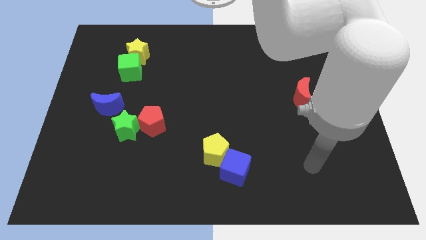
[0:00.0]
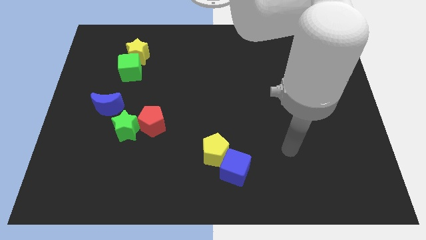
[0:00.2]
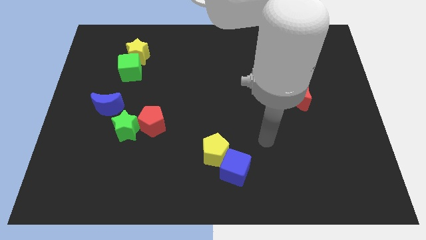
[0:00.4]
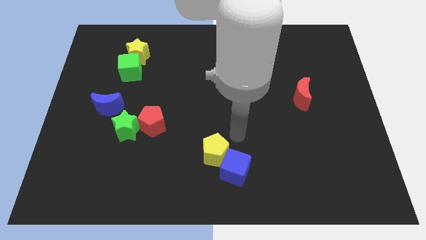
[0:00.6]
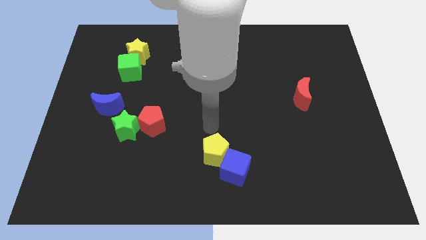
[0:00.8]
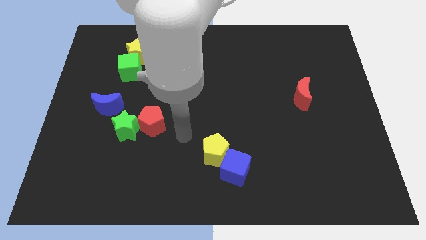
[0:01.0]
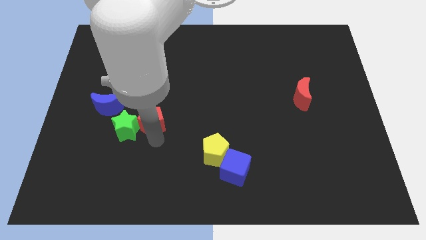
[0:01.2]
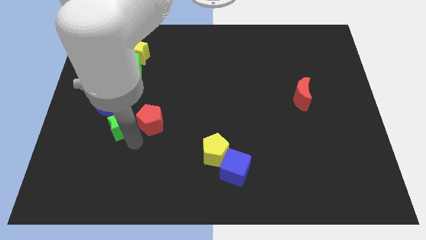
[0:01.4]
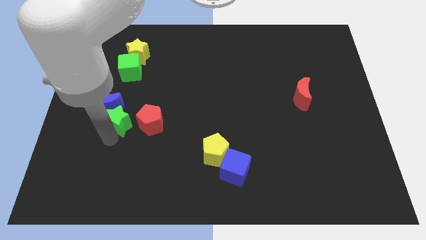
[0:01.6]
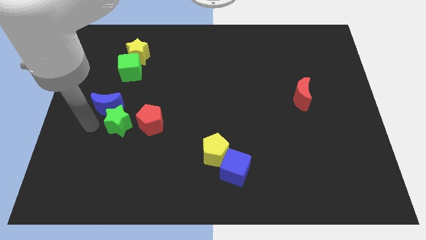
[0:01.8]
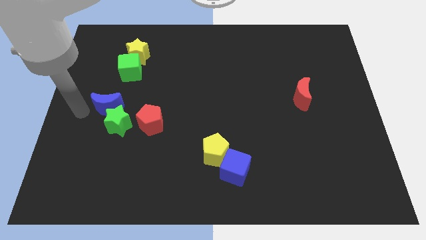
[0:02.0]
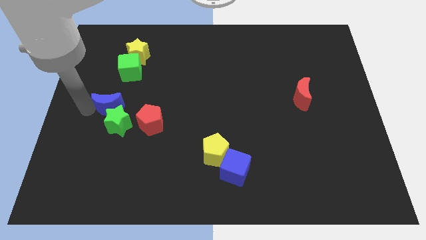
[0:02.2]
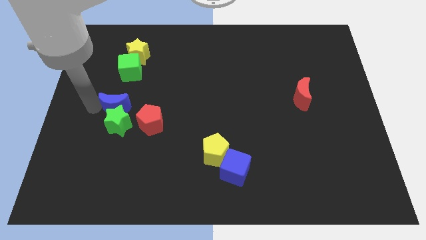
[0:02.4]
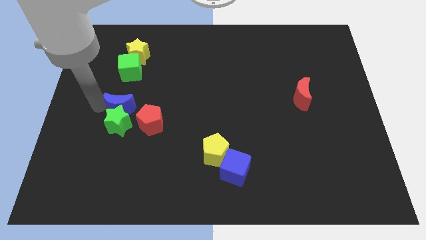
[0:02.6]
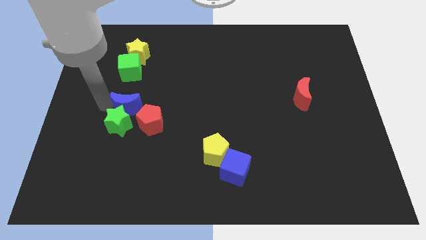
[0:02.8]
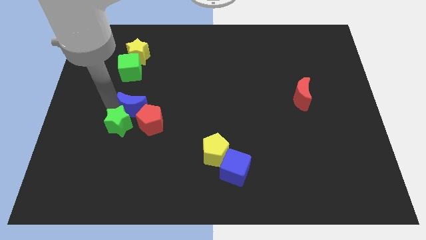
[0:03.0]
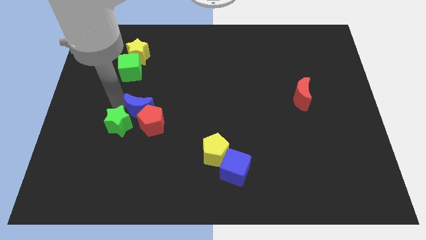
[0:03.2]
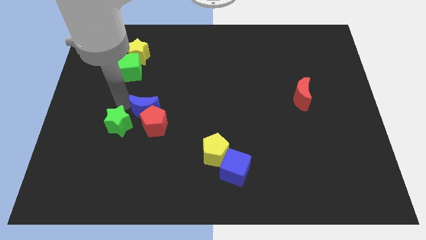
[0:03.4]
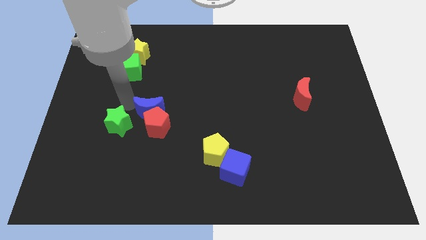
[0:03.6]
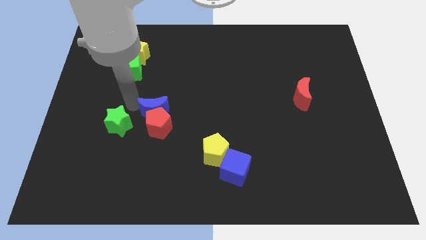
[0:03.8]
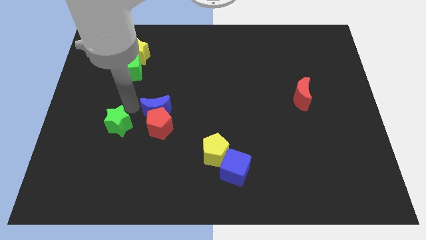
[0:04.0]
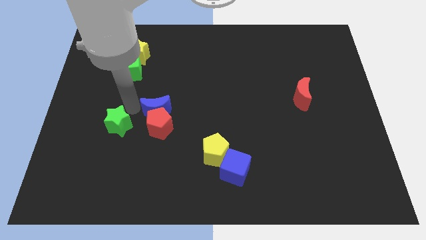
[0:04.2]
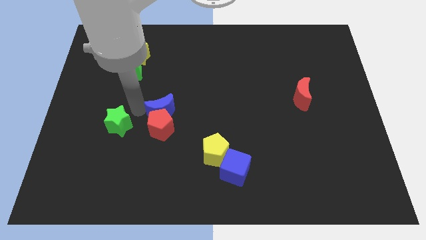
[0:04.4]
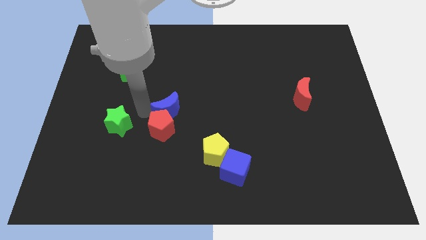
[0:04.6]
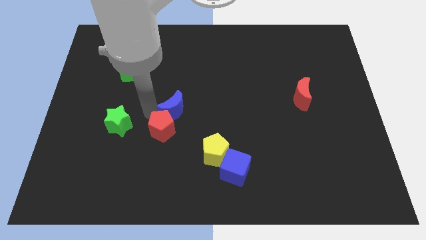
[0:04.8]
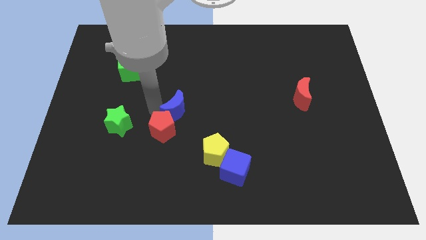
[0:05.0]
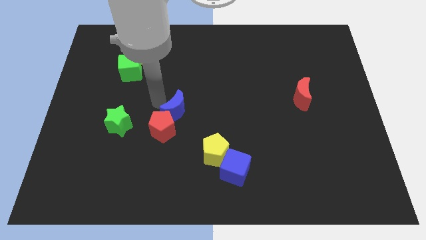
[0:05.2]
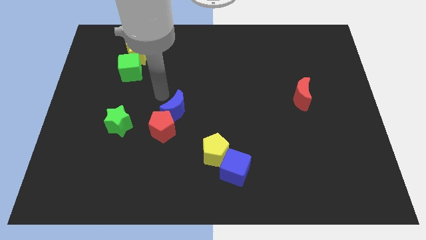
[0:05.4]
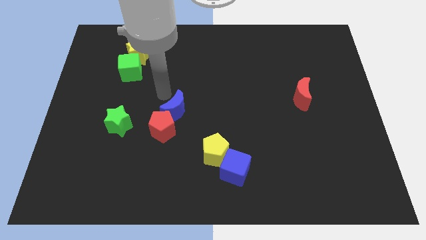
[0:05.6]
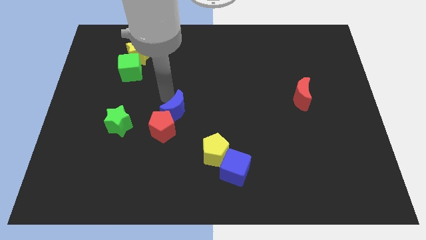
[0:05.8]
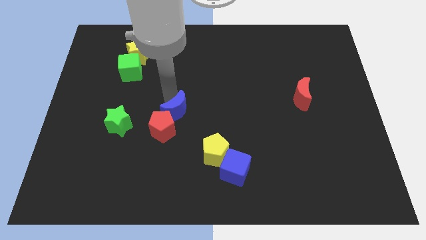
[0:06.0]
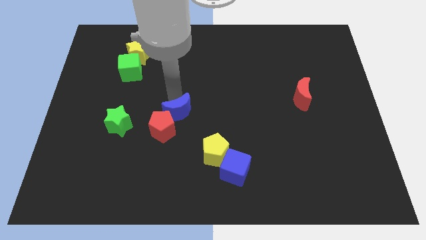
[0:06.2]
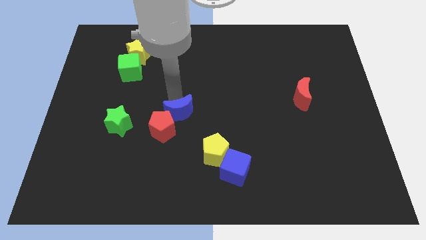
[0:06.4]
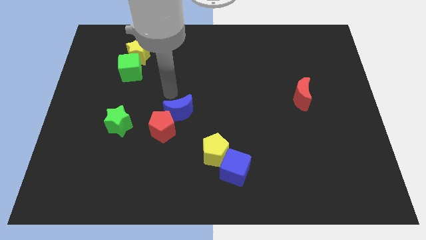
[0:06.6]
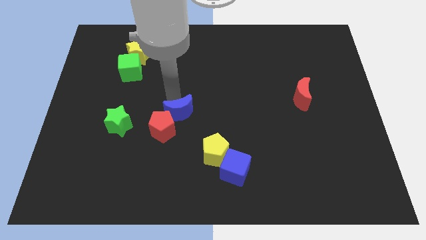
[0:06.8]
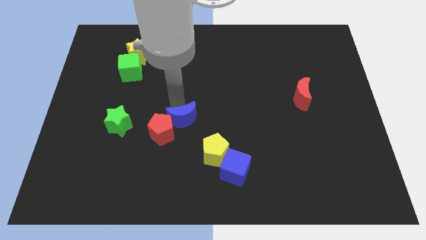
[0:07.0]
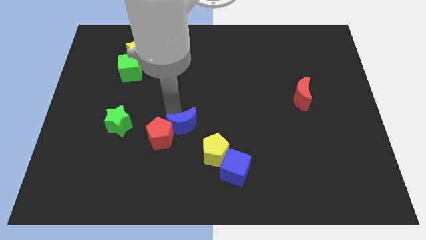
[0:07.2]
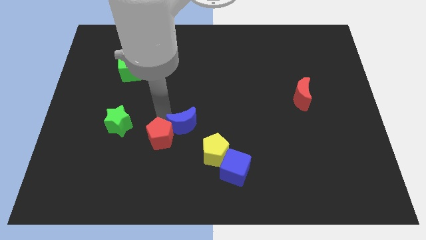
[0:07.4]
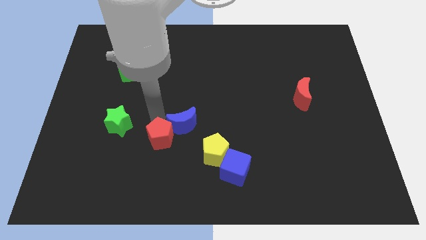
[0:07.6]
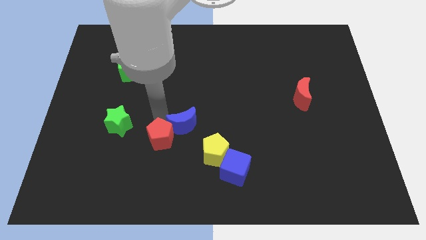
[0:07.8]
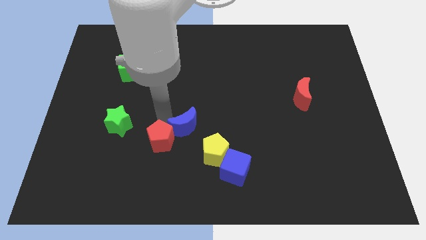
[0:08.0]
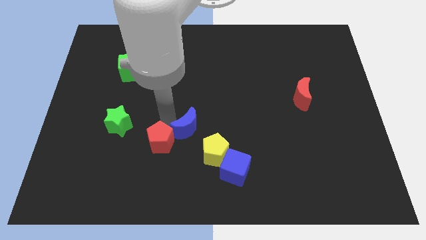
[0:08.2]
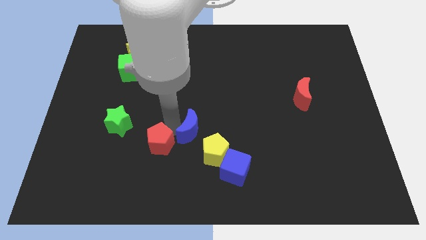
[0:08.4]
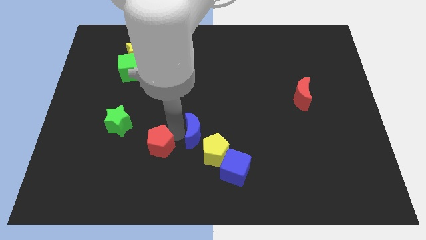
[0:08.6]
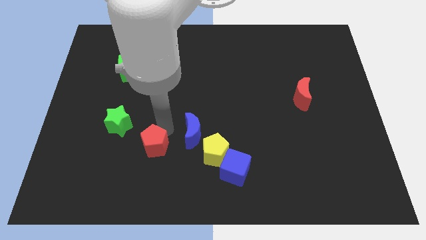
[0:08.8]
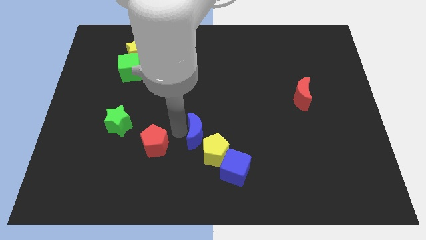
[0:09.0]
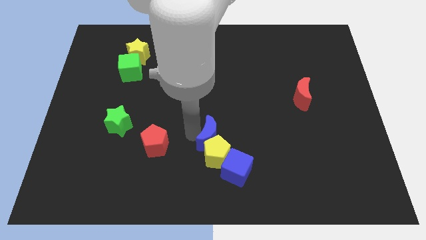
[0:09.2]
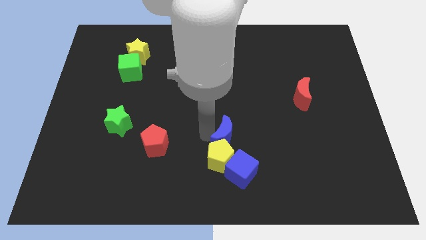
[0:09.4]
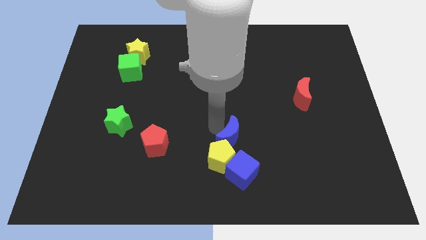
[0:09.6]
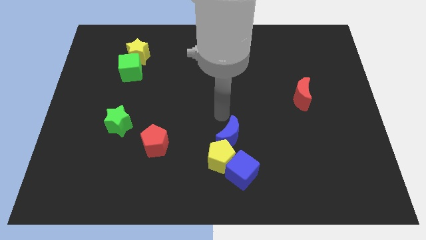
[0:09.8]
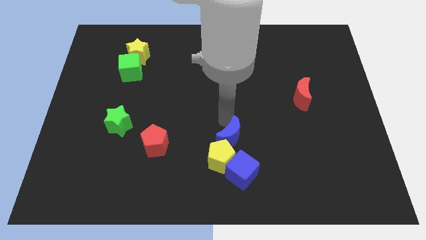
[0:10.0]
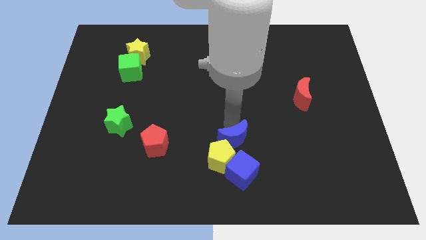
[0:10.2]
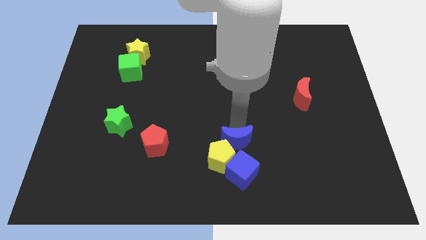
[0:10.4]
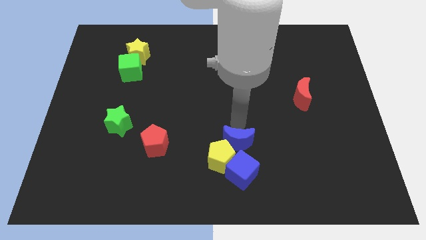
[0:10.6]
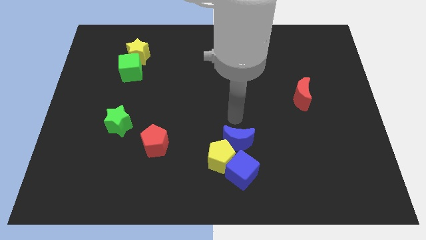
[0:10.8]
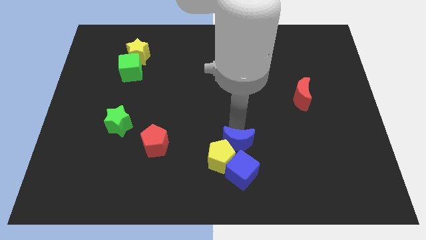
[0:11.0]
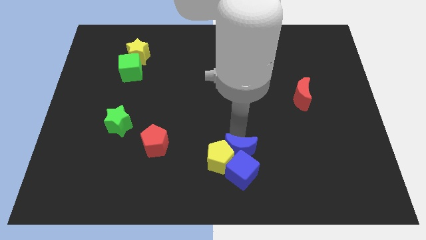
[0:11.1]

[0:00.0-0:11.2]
move the blue moon next to the blue cube

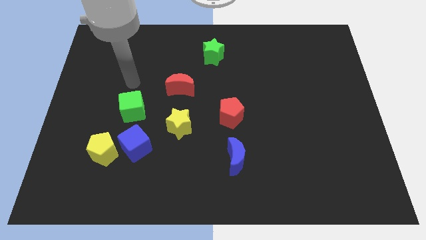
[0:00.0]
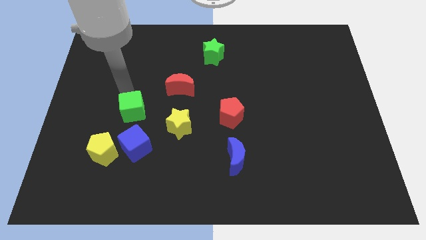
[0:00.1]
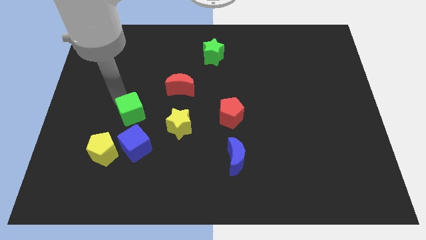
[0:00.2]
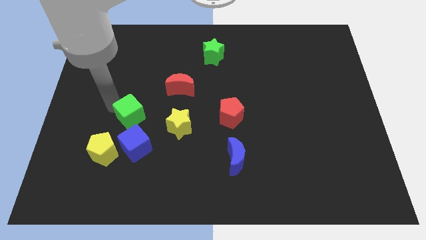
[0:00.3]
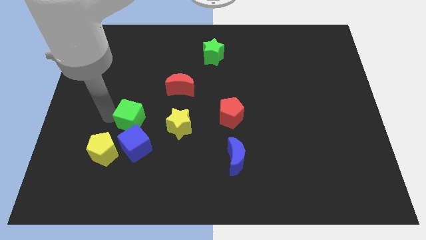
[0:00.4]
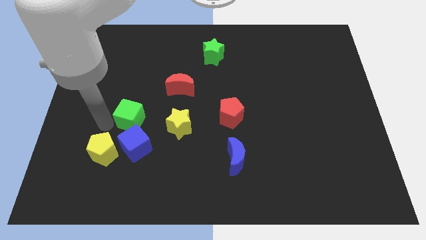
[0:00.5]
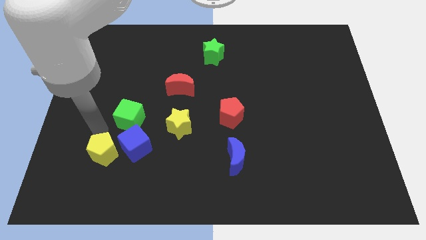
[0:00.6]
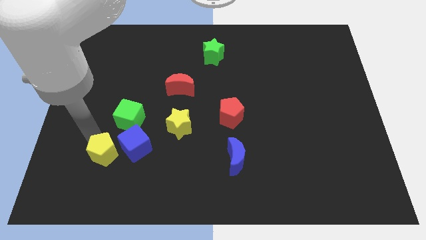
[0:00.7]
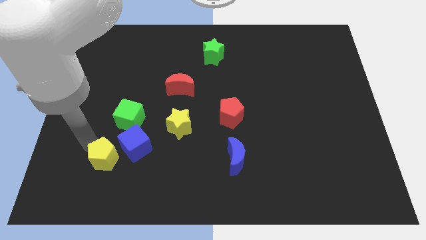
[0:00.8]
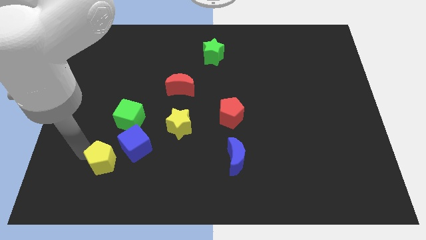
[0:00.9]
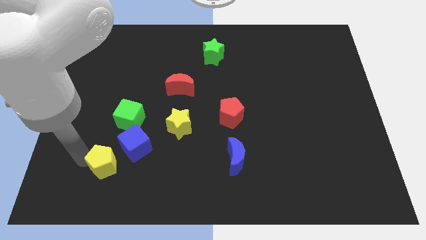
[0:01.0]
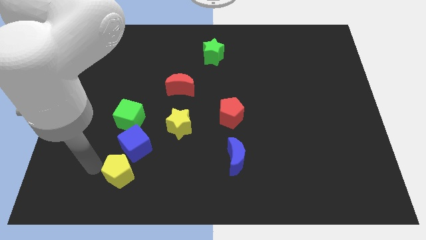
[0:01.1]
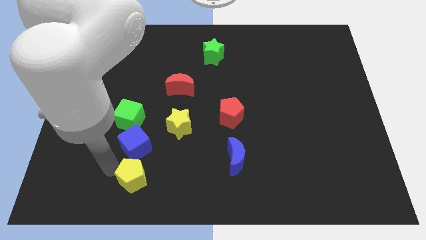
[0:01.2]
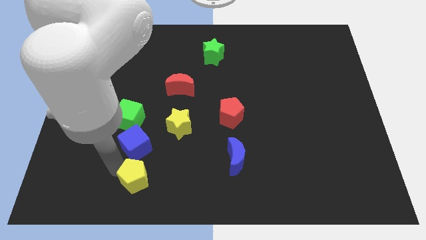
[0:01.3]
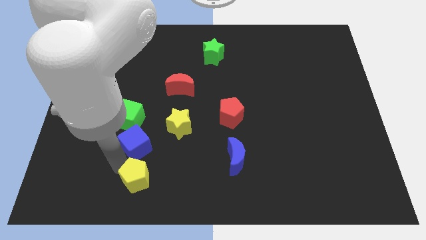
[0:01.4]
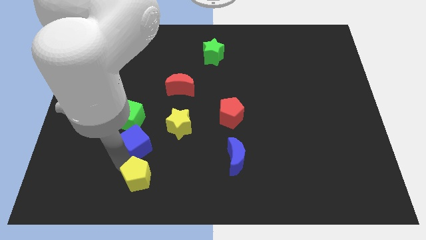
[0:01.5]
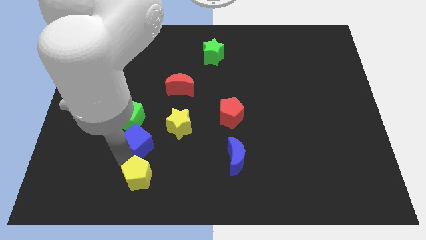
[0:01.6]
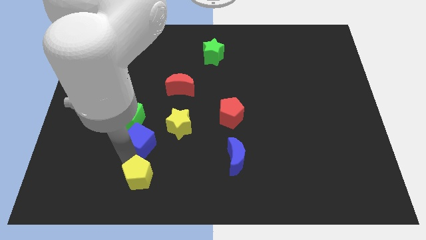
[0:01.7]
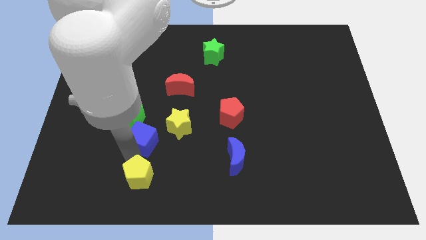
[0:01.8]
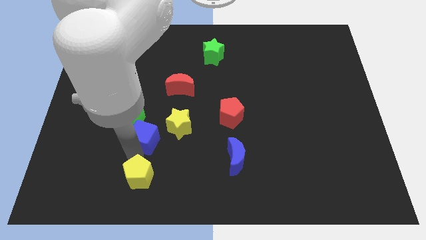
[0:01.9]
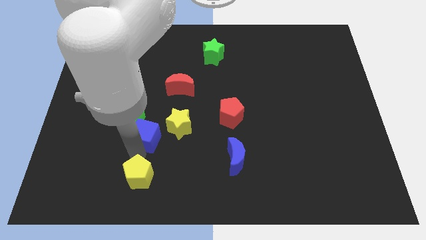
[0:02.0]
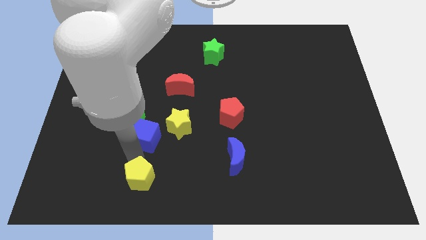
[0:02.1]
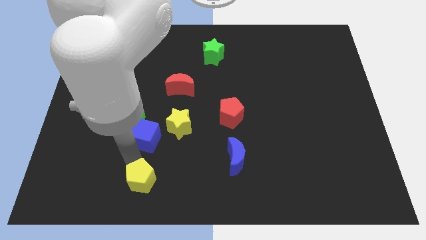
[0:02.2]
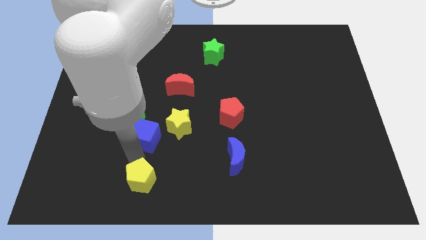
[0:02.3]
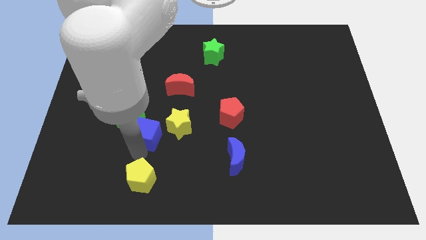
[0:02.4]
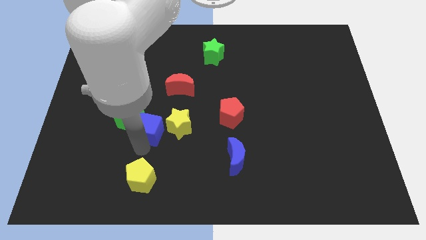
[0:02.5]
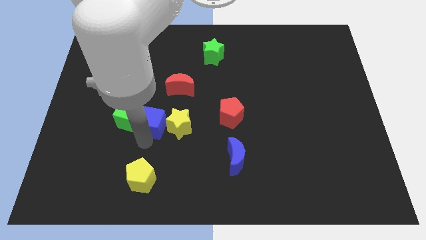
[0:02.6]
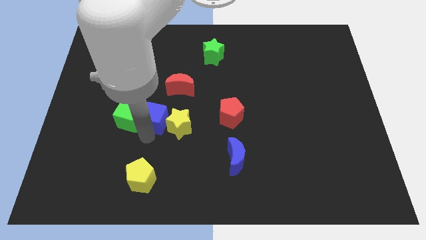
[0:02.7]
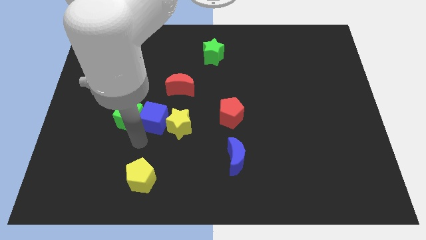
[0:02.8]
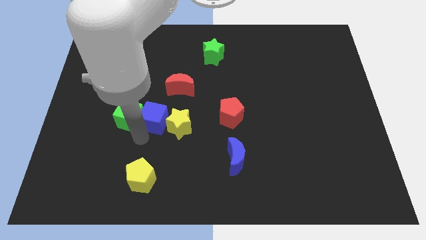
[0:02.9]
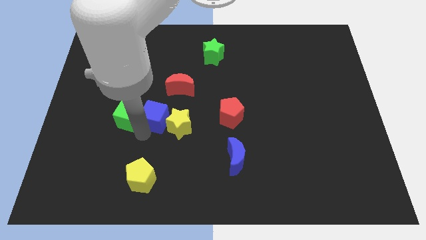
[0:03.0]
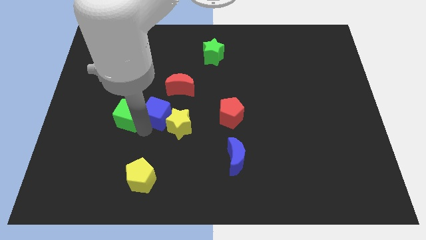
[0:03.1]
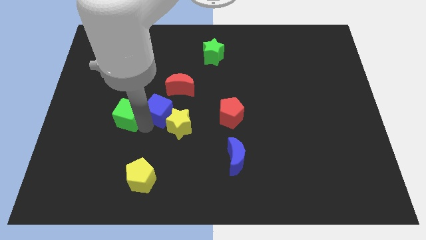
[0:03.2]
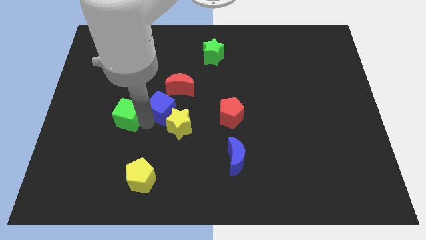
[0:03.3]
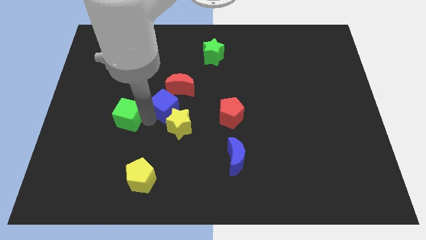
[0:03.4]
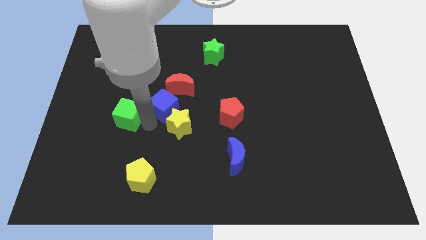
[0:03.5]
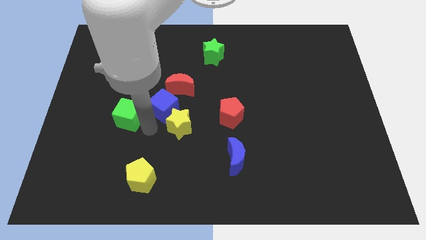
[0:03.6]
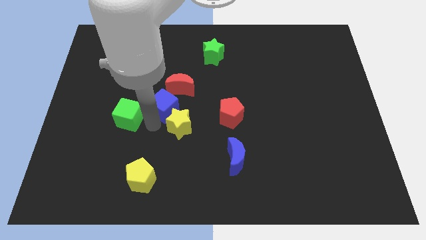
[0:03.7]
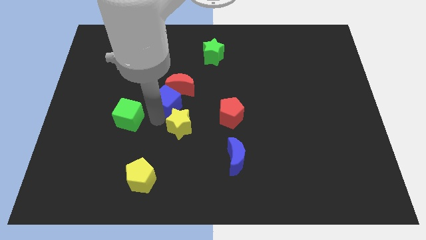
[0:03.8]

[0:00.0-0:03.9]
put the blue cube close to the red moon
